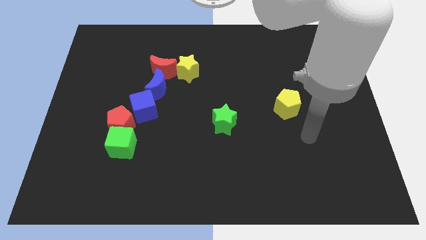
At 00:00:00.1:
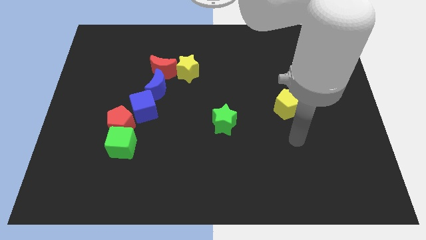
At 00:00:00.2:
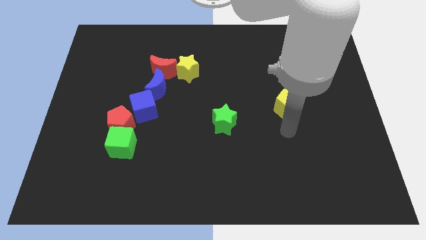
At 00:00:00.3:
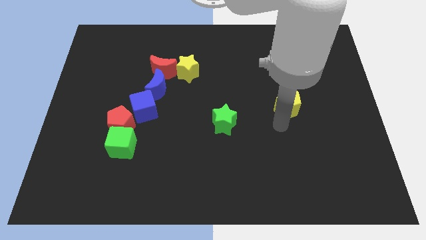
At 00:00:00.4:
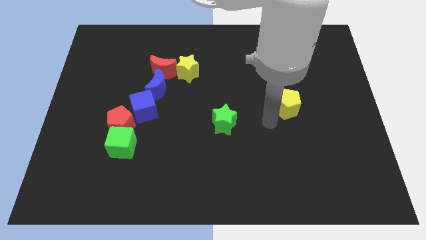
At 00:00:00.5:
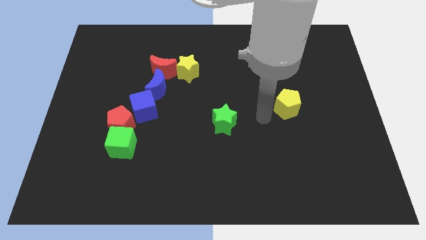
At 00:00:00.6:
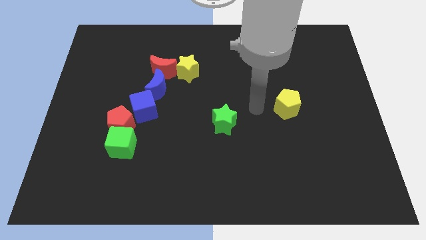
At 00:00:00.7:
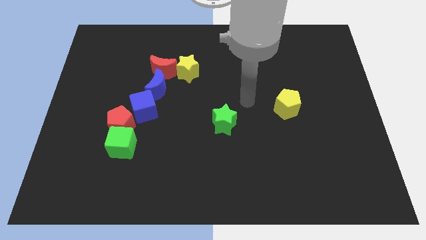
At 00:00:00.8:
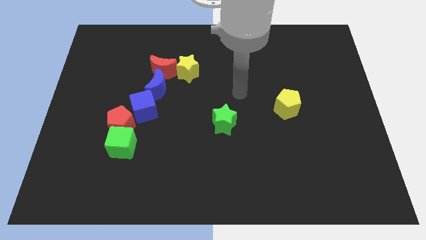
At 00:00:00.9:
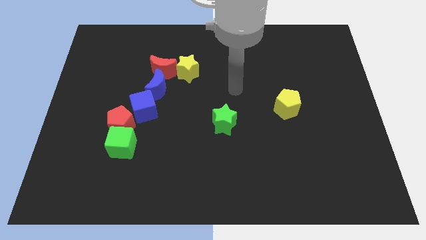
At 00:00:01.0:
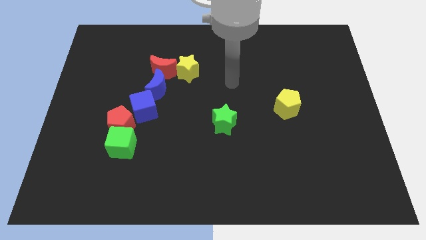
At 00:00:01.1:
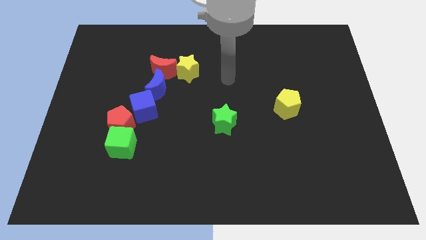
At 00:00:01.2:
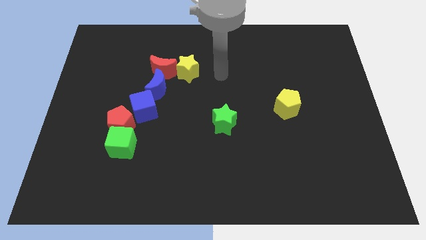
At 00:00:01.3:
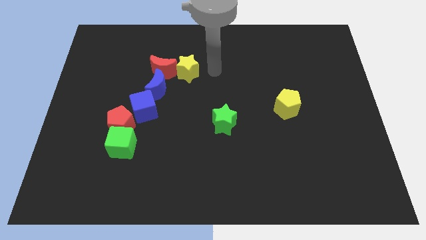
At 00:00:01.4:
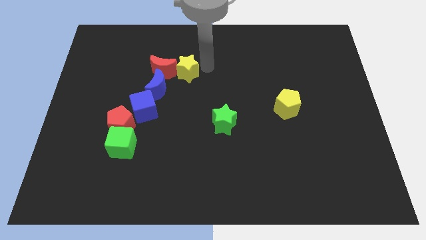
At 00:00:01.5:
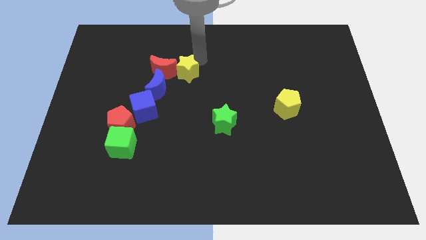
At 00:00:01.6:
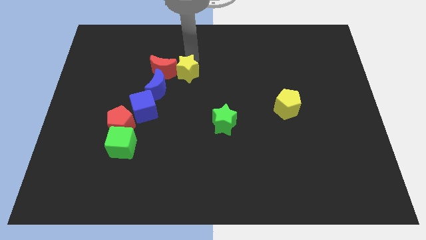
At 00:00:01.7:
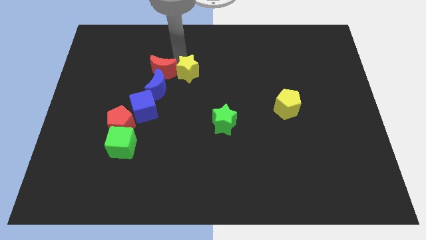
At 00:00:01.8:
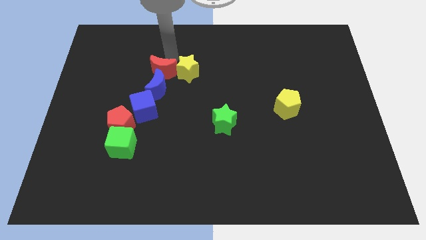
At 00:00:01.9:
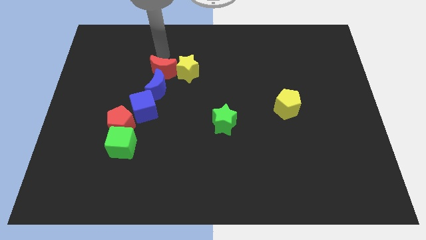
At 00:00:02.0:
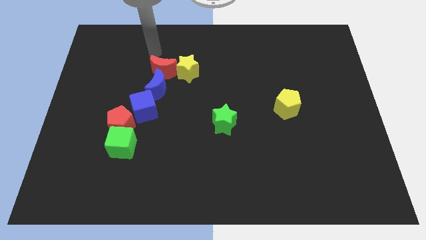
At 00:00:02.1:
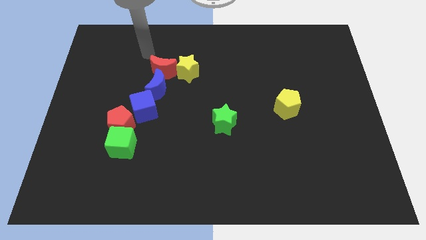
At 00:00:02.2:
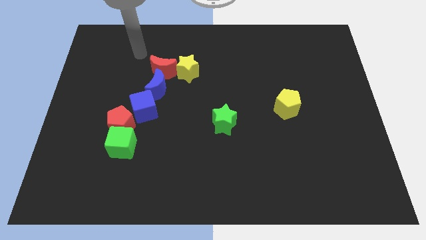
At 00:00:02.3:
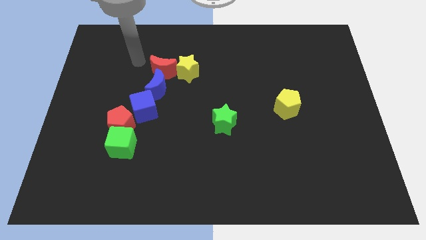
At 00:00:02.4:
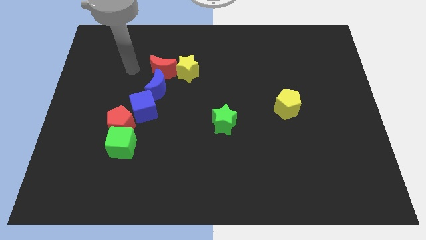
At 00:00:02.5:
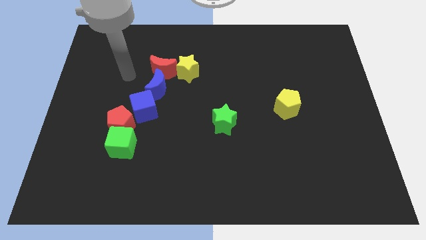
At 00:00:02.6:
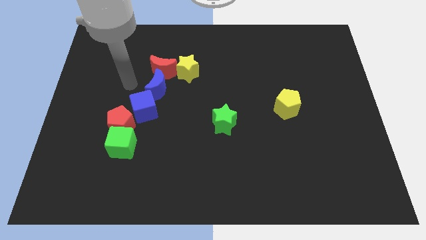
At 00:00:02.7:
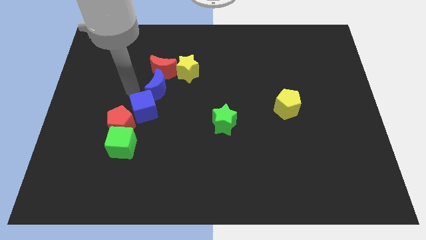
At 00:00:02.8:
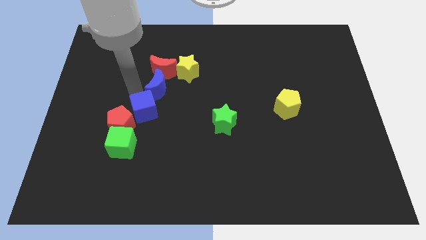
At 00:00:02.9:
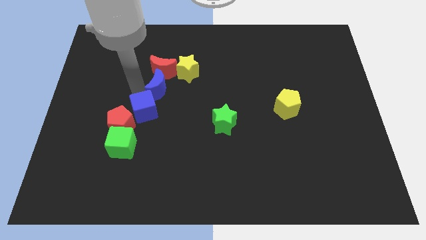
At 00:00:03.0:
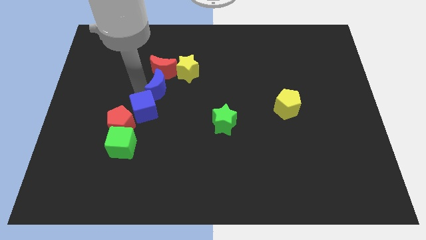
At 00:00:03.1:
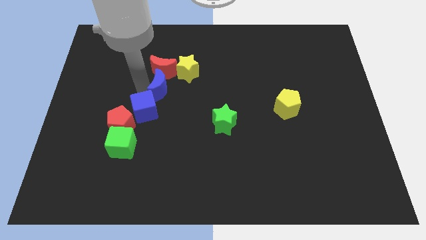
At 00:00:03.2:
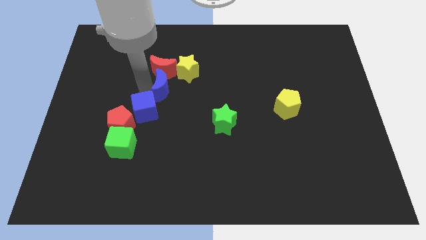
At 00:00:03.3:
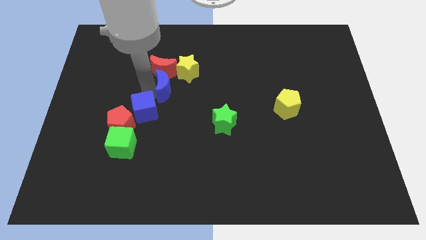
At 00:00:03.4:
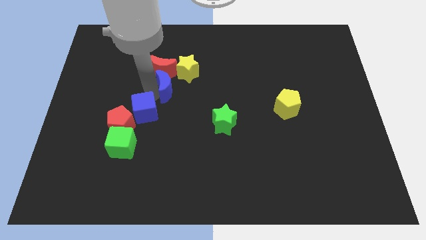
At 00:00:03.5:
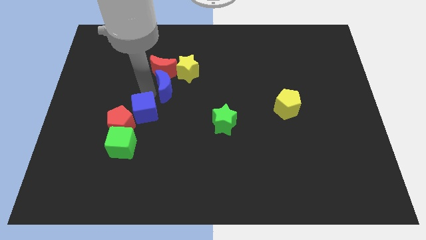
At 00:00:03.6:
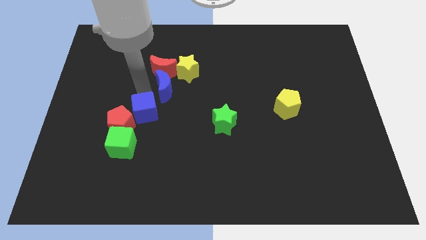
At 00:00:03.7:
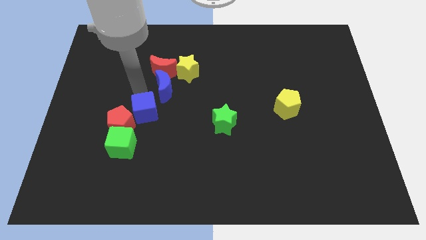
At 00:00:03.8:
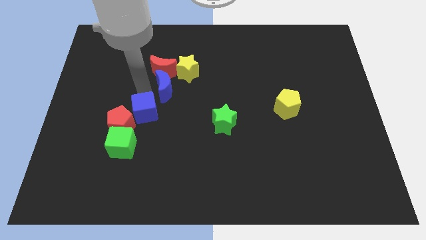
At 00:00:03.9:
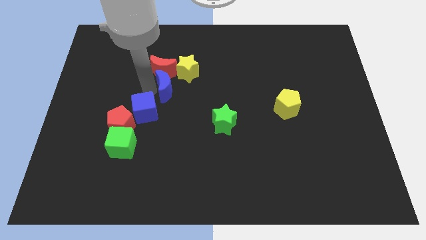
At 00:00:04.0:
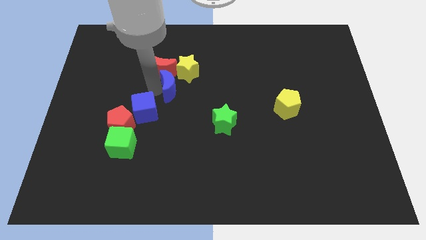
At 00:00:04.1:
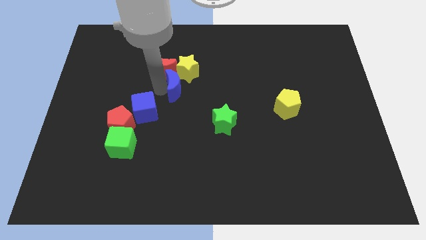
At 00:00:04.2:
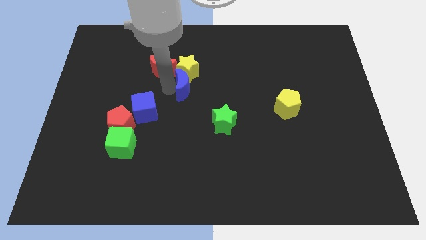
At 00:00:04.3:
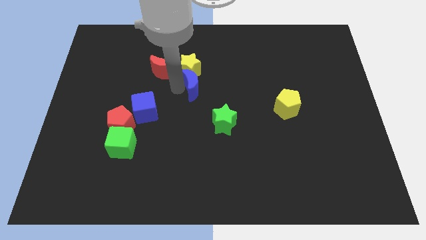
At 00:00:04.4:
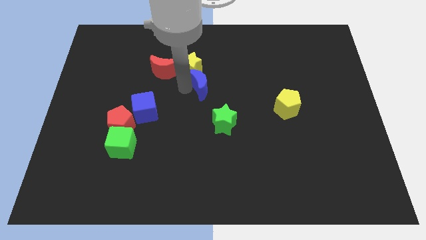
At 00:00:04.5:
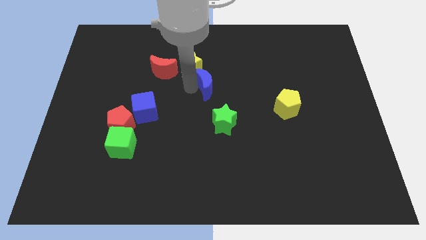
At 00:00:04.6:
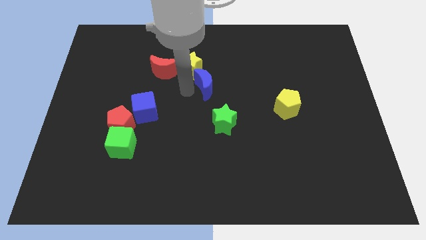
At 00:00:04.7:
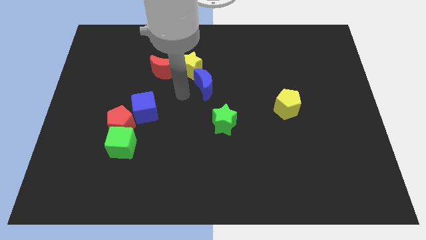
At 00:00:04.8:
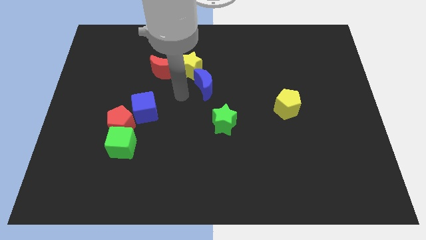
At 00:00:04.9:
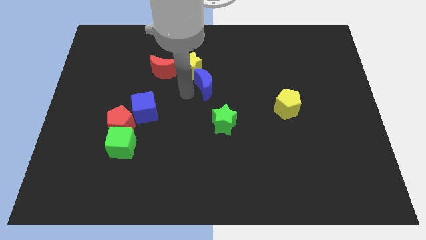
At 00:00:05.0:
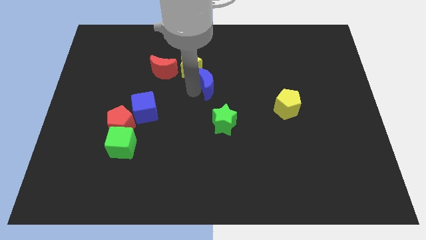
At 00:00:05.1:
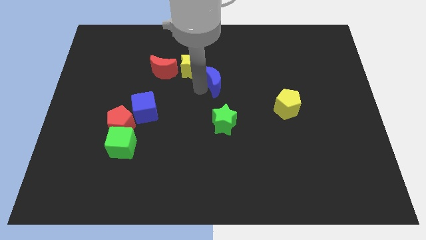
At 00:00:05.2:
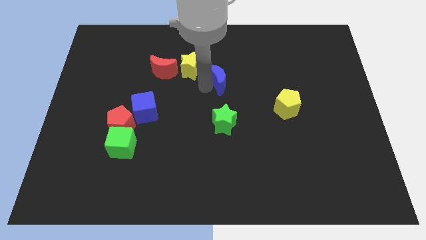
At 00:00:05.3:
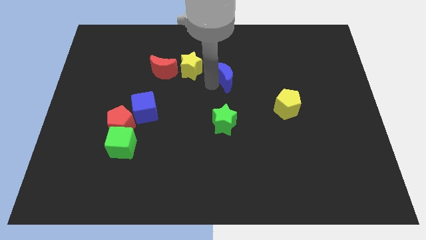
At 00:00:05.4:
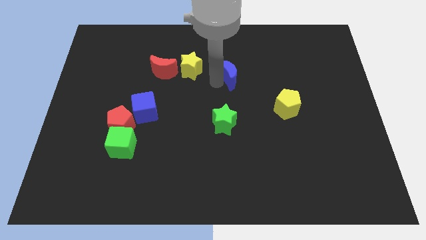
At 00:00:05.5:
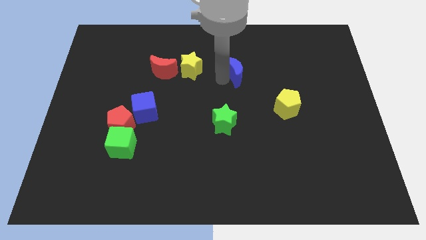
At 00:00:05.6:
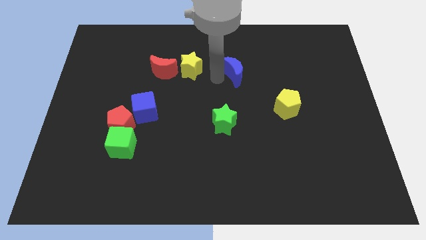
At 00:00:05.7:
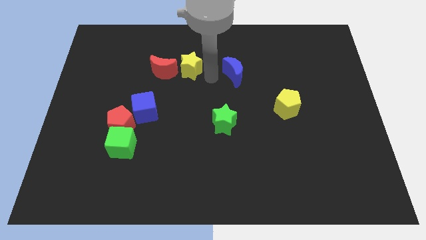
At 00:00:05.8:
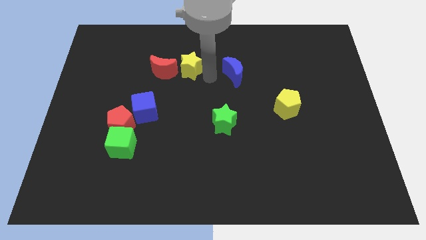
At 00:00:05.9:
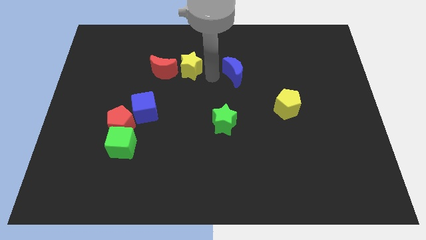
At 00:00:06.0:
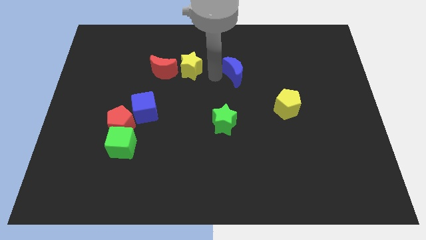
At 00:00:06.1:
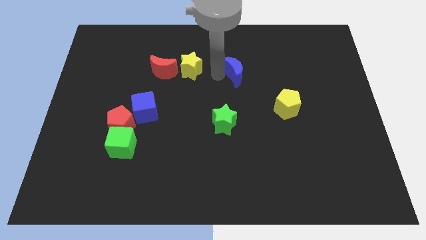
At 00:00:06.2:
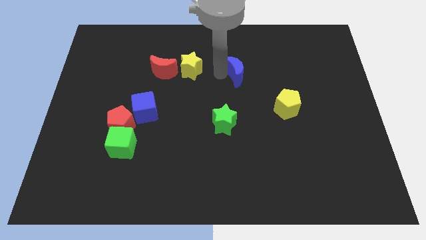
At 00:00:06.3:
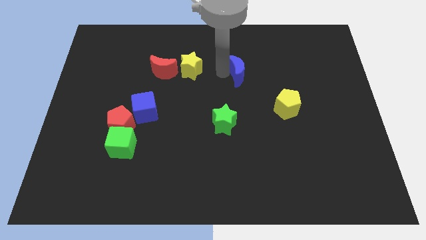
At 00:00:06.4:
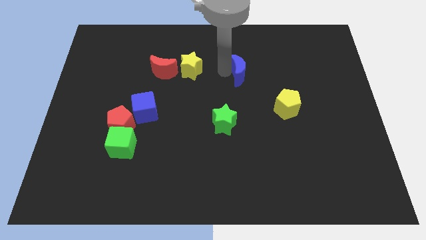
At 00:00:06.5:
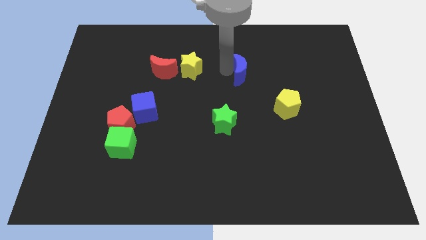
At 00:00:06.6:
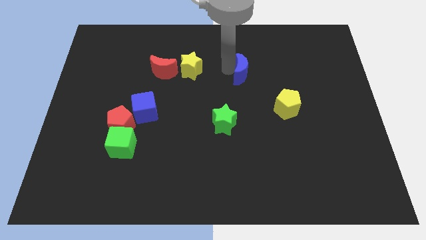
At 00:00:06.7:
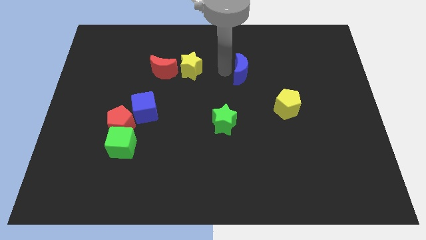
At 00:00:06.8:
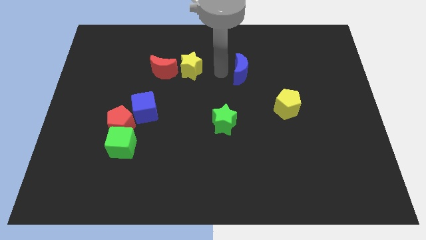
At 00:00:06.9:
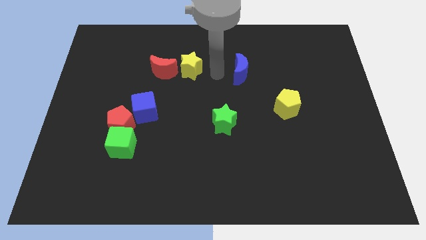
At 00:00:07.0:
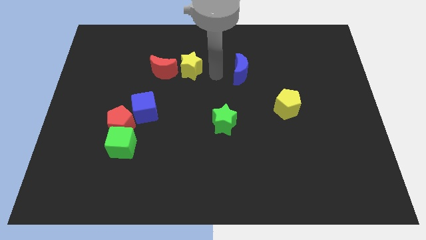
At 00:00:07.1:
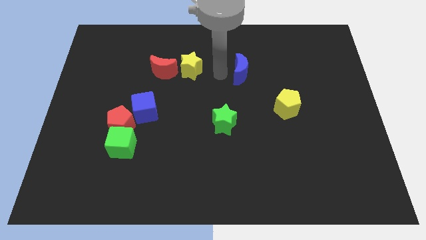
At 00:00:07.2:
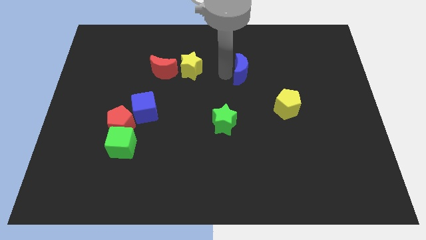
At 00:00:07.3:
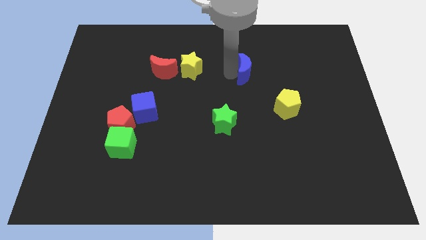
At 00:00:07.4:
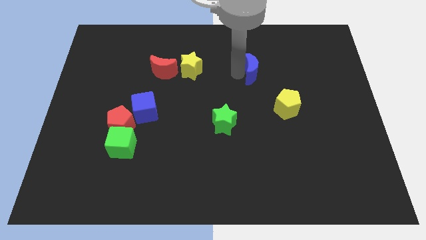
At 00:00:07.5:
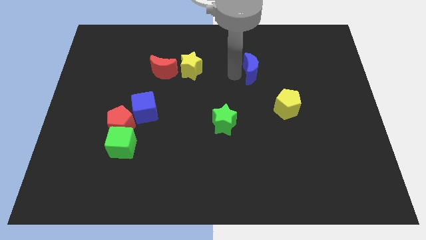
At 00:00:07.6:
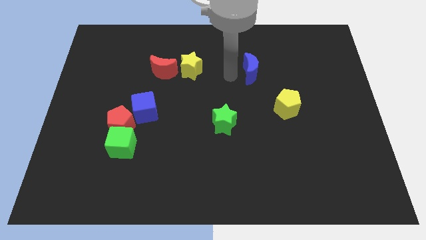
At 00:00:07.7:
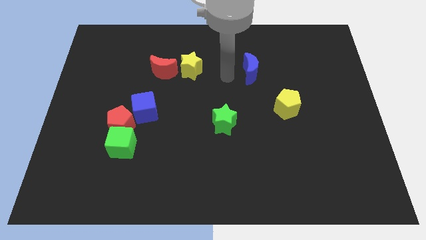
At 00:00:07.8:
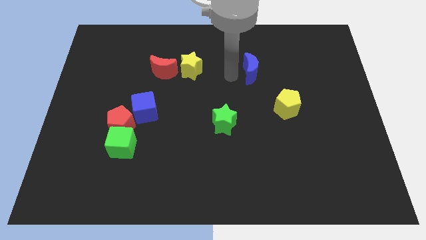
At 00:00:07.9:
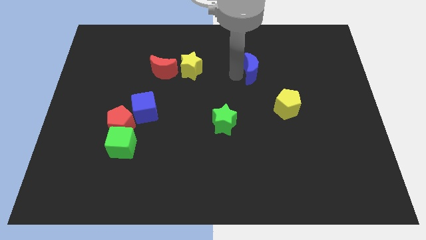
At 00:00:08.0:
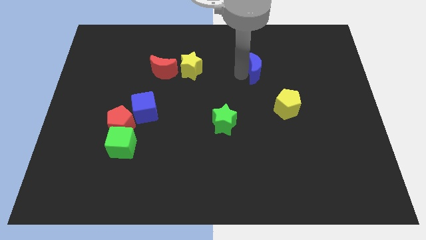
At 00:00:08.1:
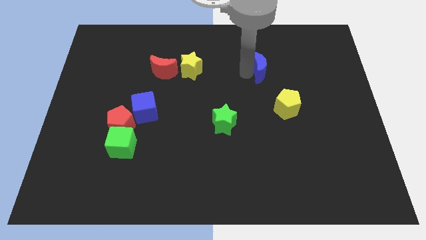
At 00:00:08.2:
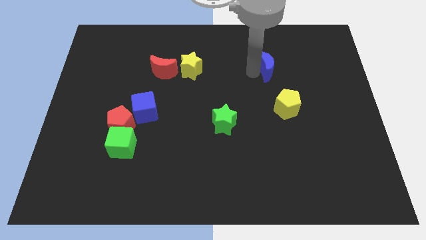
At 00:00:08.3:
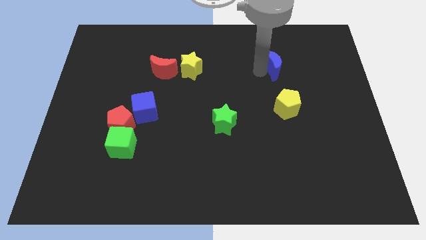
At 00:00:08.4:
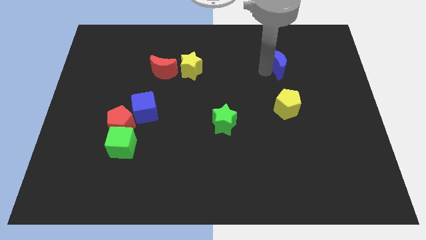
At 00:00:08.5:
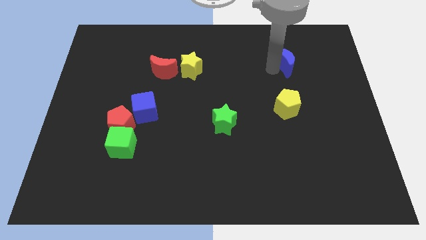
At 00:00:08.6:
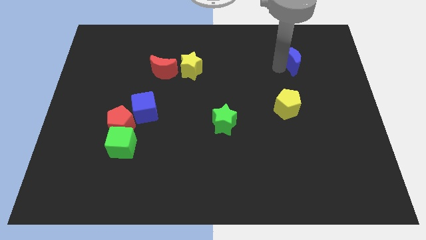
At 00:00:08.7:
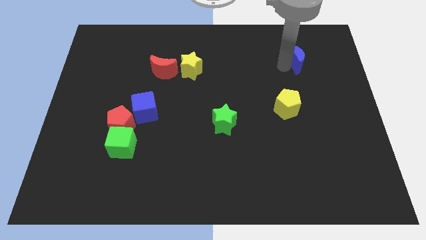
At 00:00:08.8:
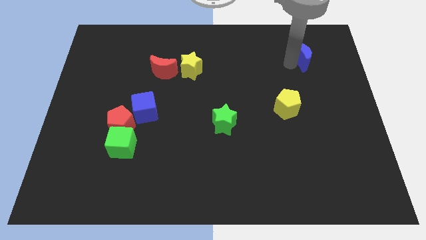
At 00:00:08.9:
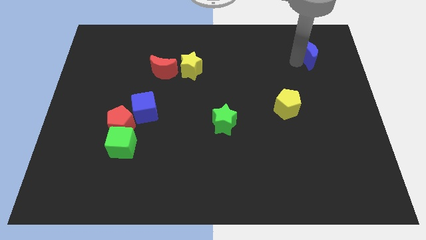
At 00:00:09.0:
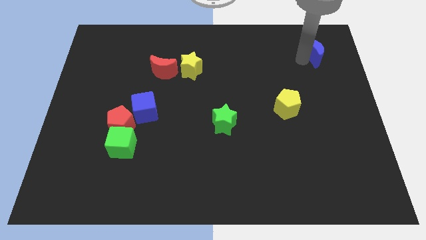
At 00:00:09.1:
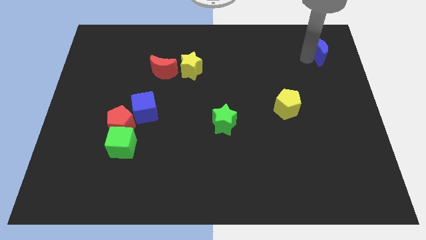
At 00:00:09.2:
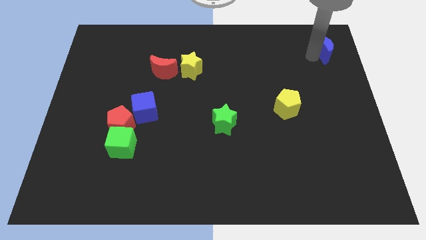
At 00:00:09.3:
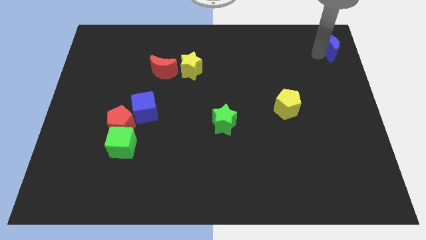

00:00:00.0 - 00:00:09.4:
slide the blue moon to the top right
